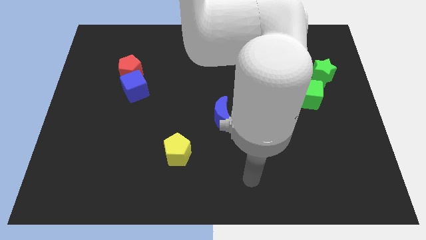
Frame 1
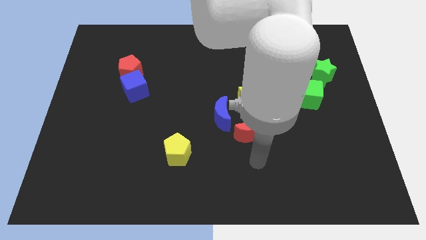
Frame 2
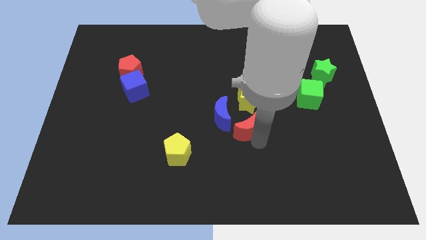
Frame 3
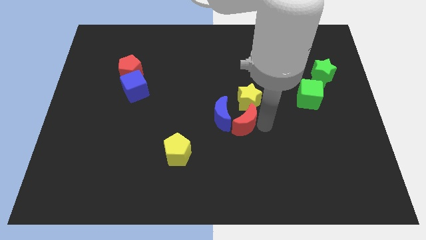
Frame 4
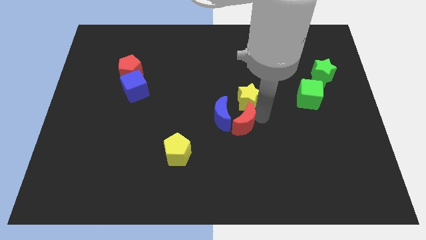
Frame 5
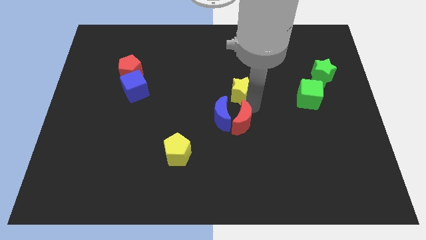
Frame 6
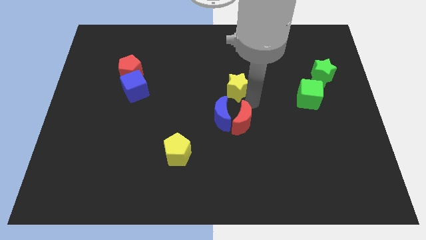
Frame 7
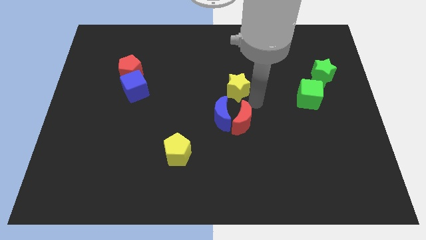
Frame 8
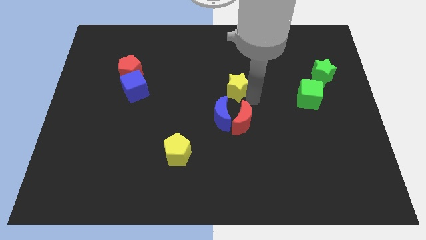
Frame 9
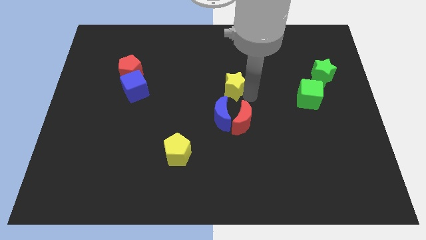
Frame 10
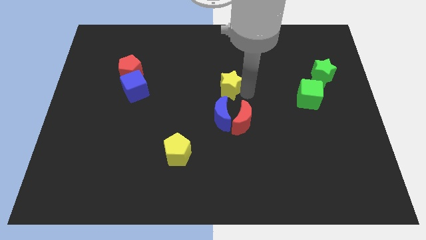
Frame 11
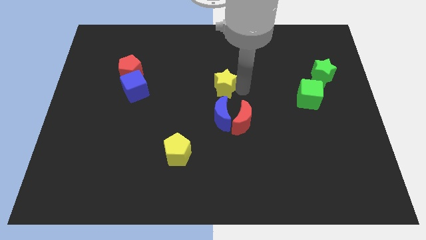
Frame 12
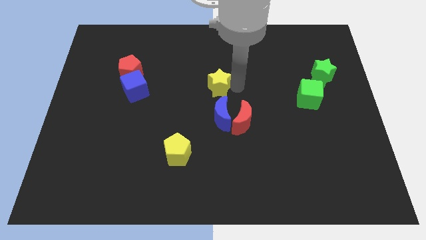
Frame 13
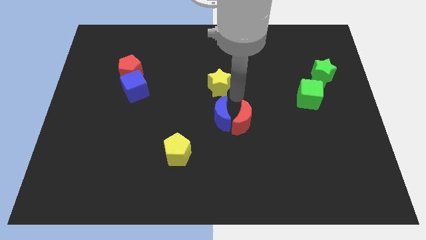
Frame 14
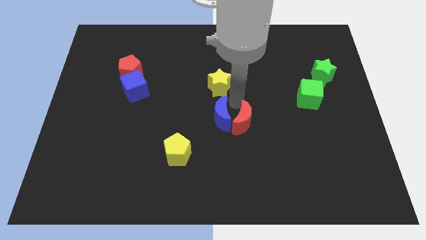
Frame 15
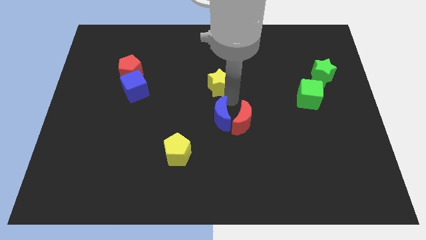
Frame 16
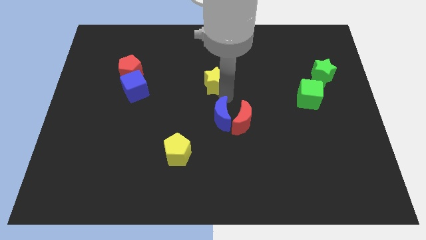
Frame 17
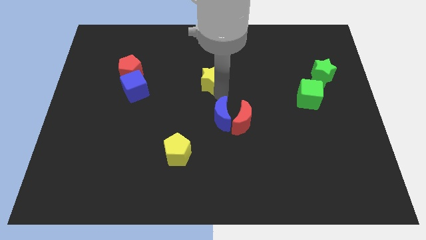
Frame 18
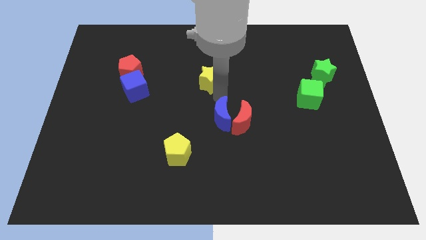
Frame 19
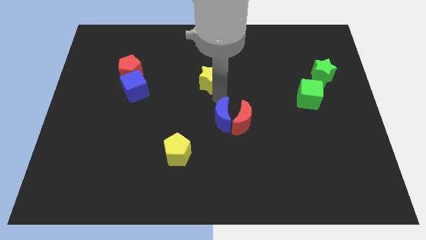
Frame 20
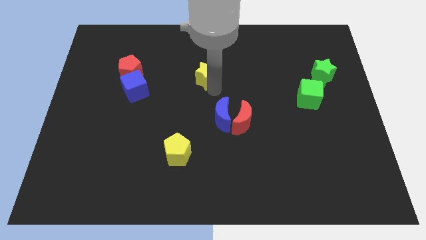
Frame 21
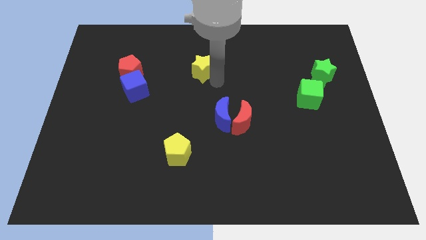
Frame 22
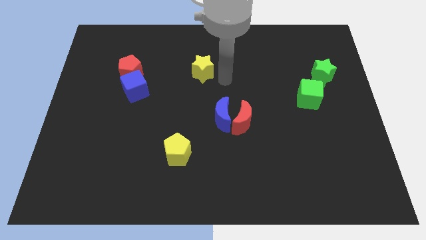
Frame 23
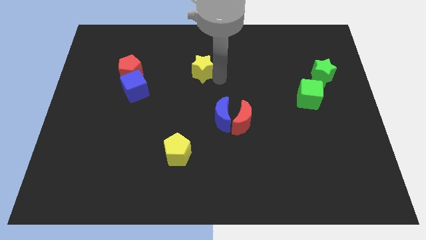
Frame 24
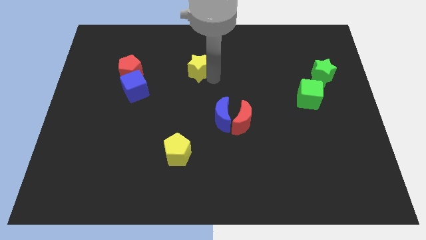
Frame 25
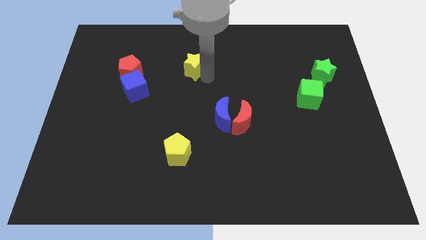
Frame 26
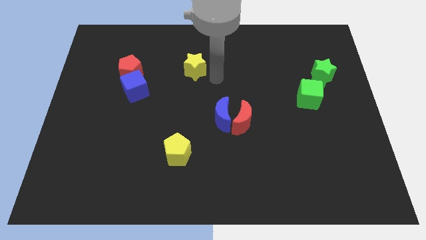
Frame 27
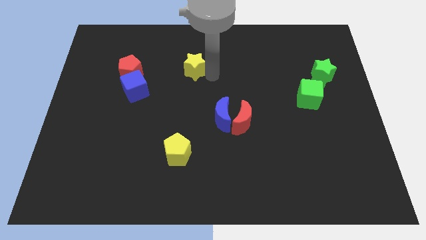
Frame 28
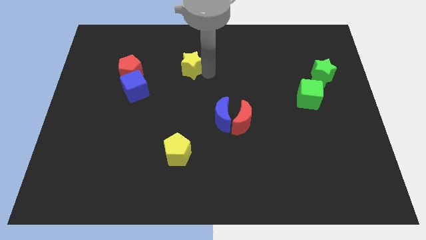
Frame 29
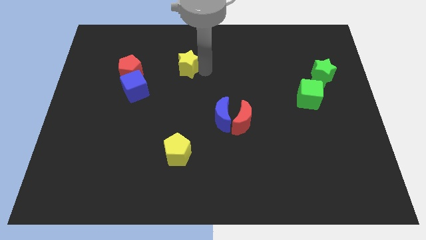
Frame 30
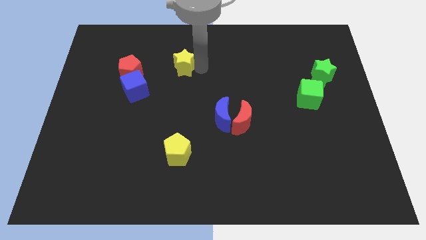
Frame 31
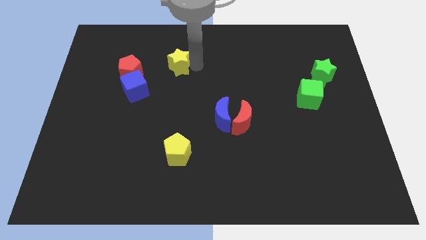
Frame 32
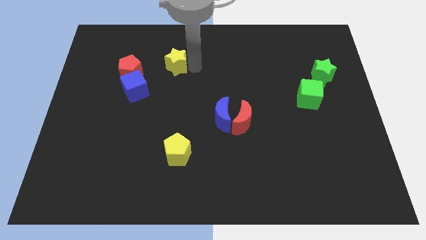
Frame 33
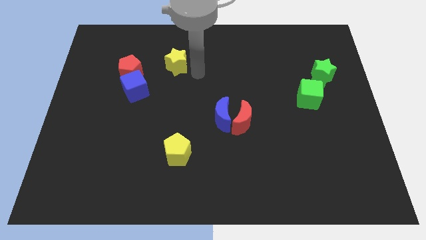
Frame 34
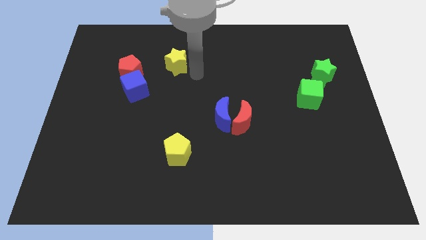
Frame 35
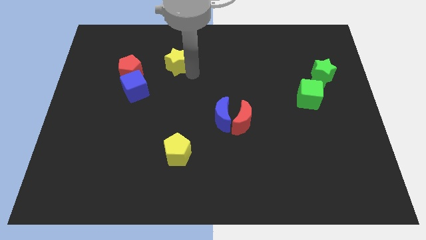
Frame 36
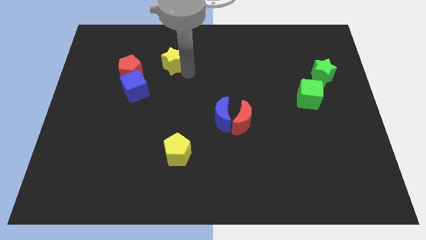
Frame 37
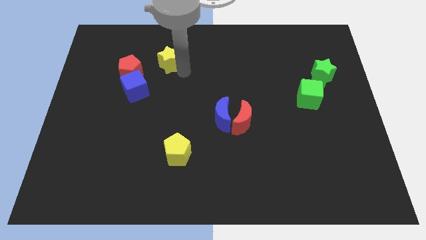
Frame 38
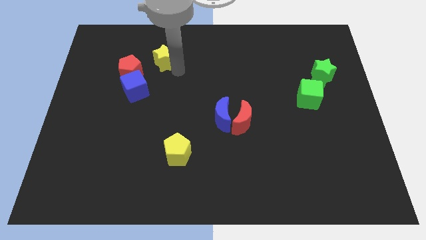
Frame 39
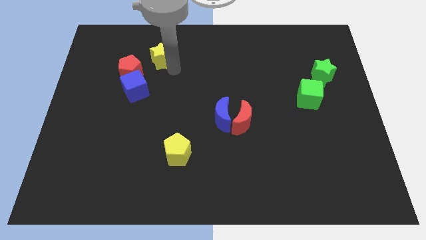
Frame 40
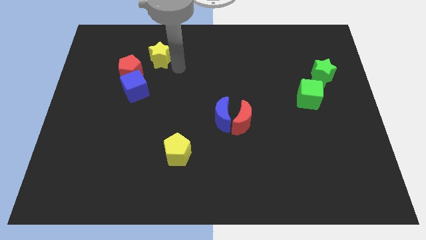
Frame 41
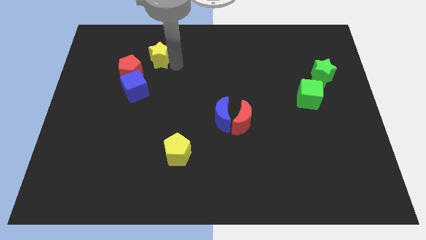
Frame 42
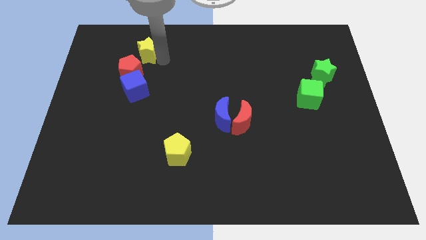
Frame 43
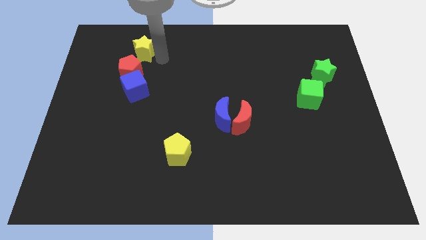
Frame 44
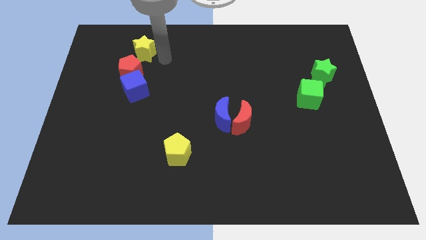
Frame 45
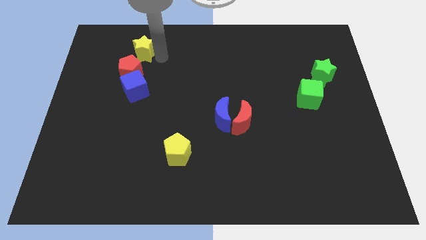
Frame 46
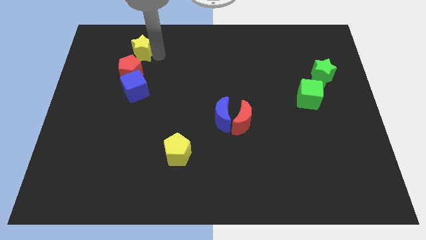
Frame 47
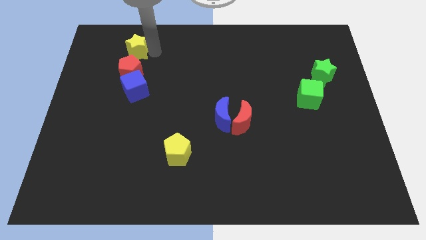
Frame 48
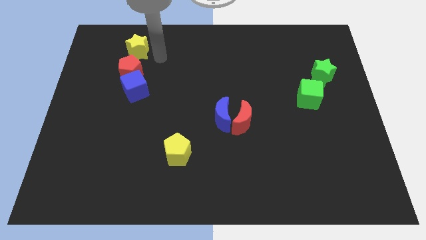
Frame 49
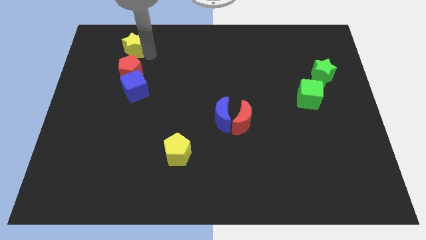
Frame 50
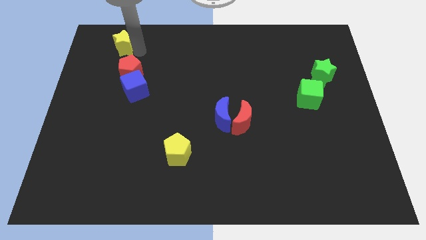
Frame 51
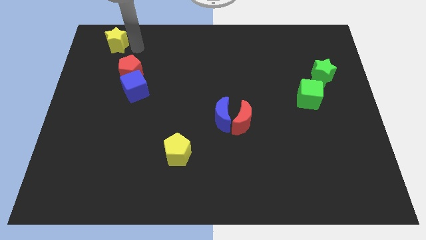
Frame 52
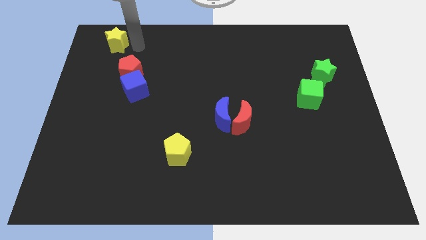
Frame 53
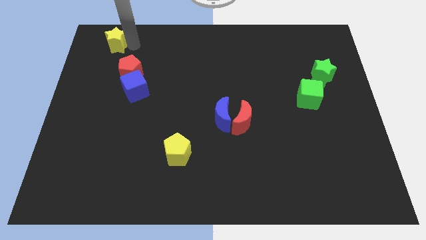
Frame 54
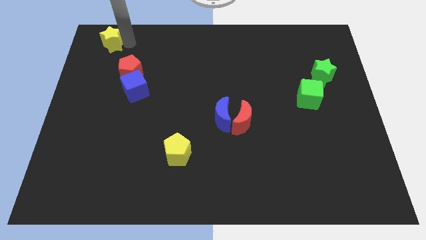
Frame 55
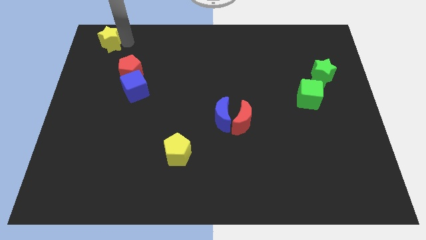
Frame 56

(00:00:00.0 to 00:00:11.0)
slide the yellow star to the top left

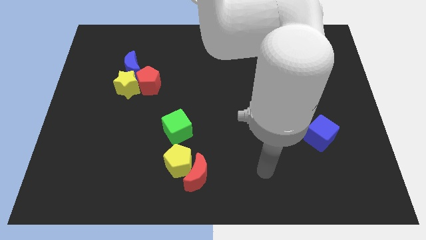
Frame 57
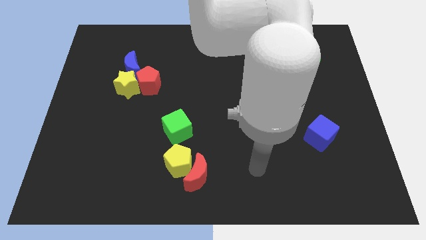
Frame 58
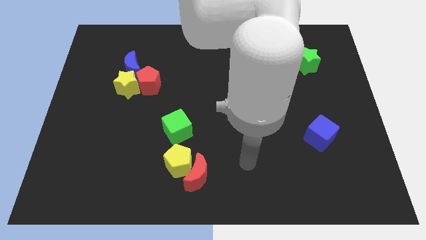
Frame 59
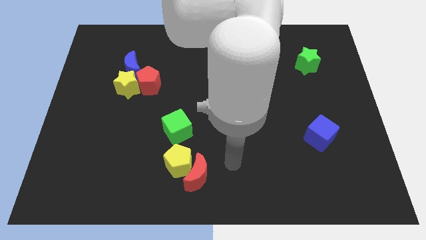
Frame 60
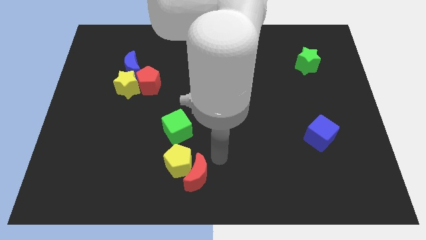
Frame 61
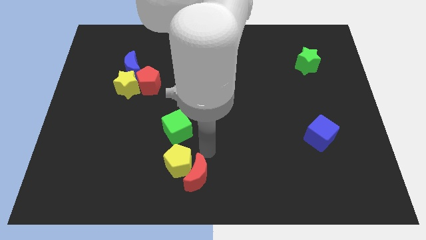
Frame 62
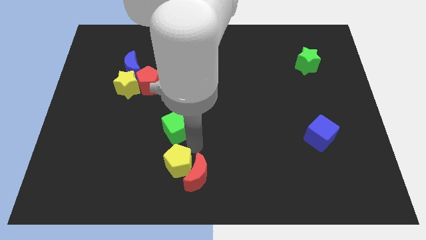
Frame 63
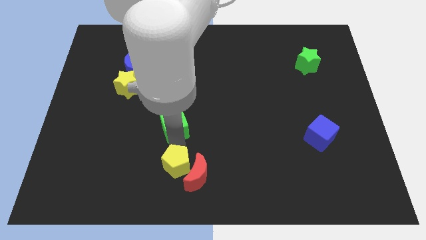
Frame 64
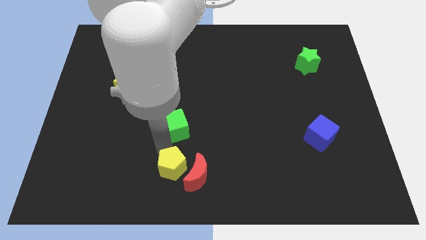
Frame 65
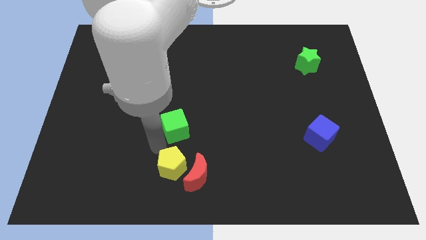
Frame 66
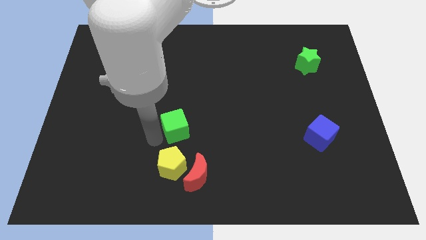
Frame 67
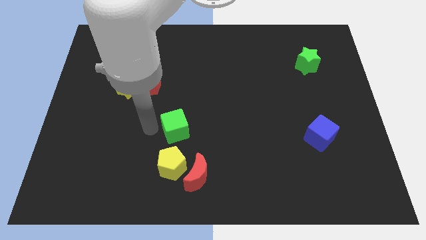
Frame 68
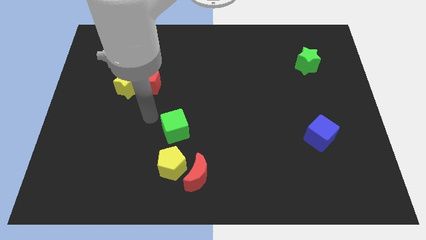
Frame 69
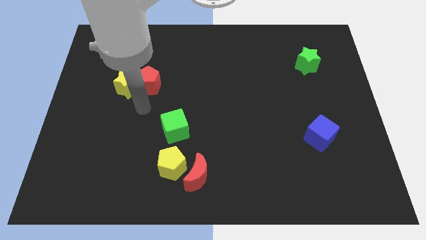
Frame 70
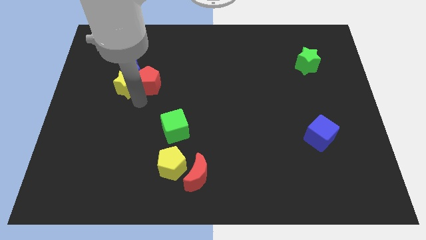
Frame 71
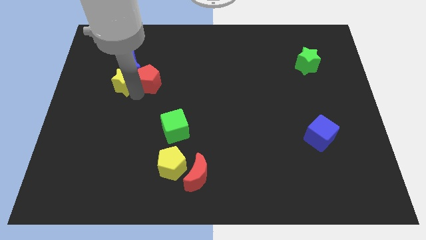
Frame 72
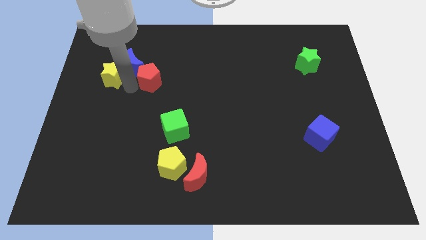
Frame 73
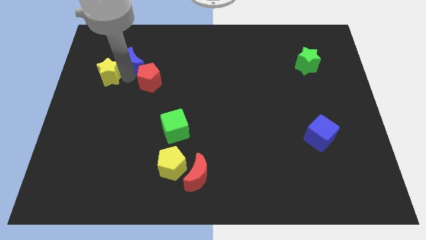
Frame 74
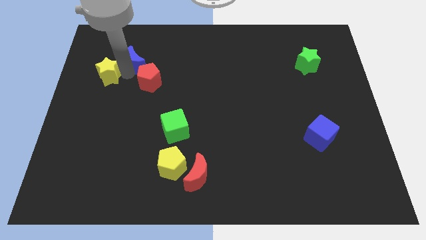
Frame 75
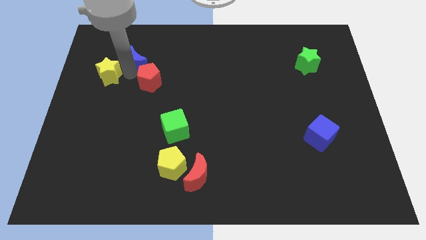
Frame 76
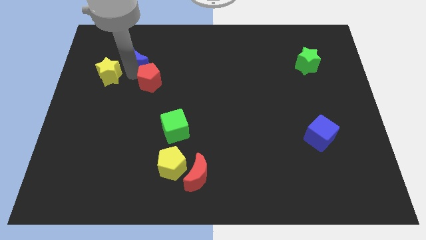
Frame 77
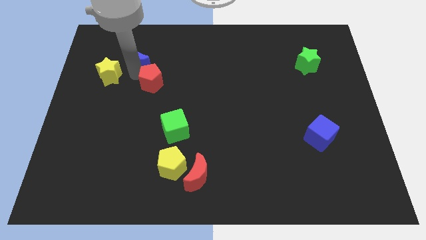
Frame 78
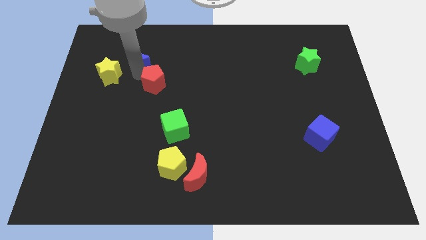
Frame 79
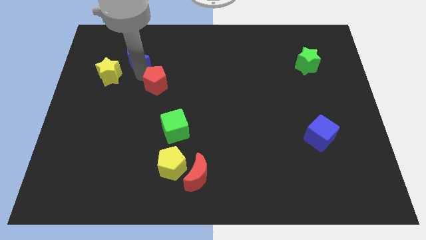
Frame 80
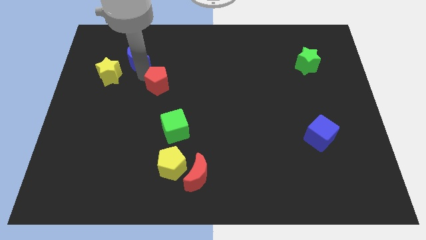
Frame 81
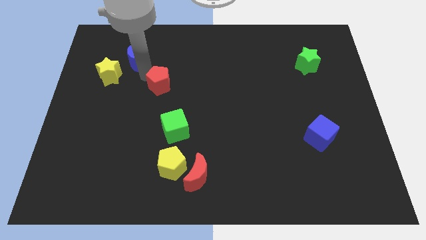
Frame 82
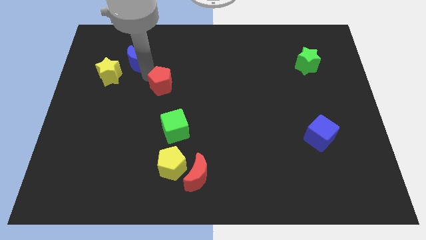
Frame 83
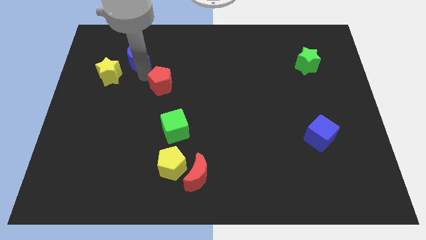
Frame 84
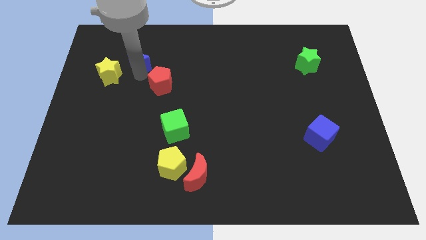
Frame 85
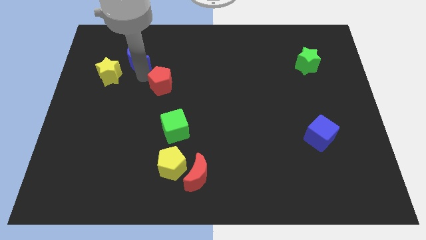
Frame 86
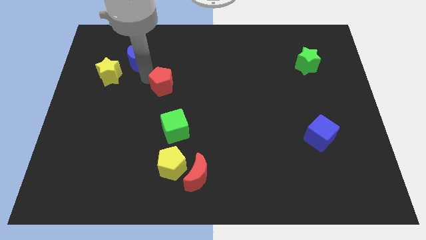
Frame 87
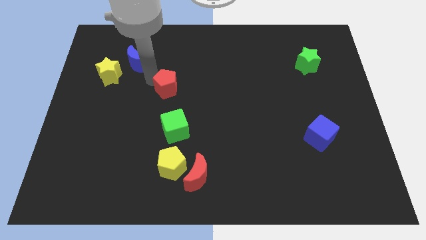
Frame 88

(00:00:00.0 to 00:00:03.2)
put the red pentagon to the center of the board
